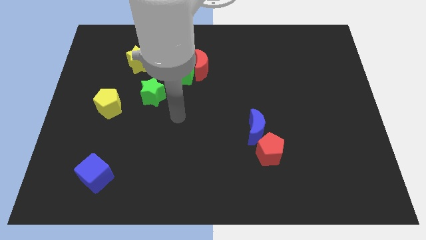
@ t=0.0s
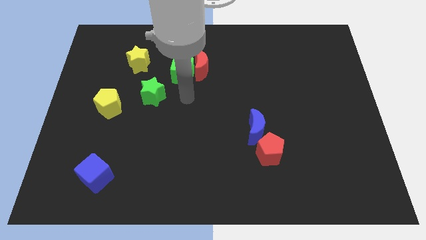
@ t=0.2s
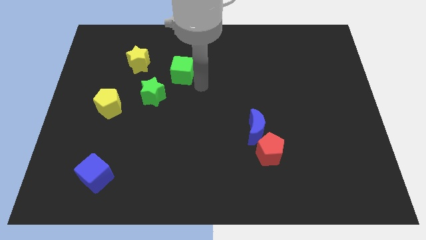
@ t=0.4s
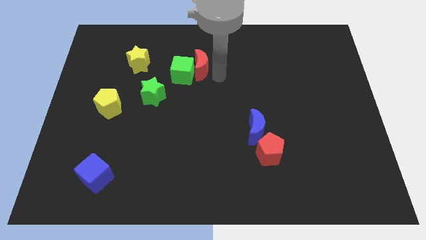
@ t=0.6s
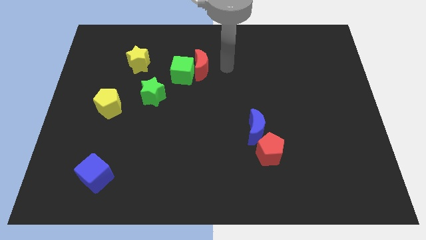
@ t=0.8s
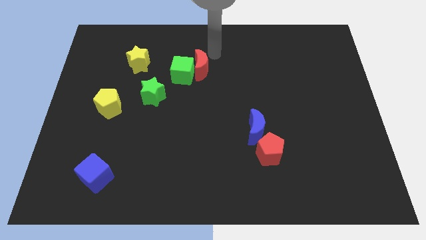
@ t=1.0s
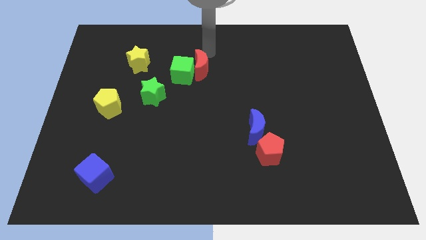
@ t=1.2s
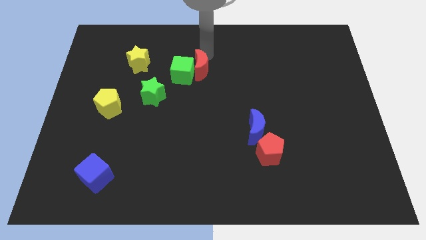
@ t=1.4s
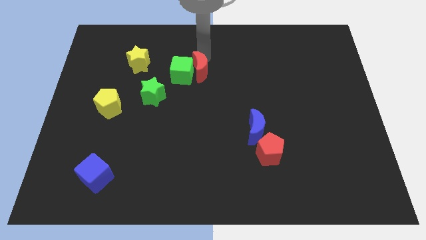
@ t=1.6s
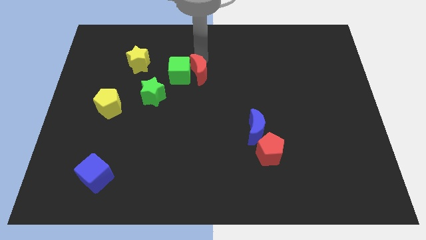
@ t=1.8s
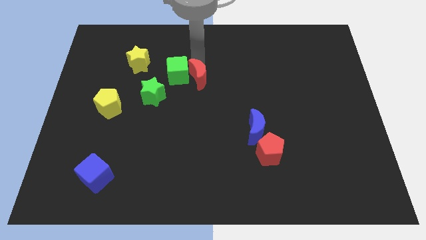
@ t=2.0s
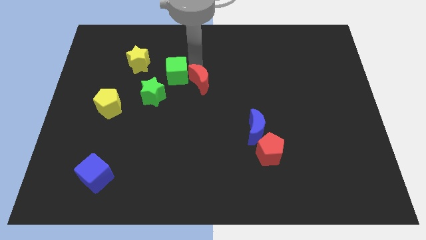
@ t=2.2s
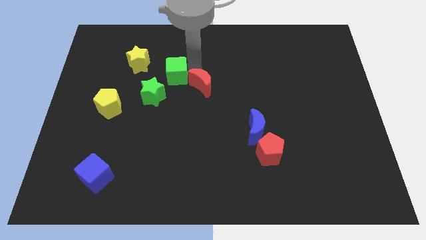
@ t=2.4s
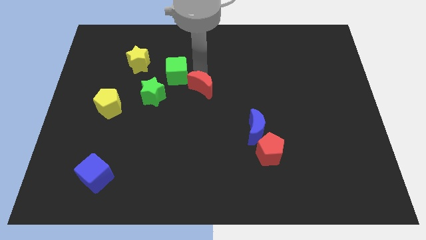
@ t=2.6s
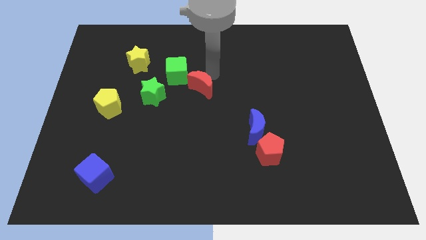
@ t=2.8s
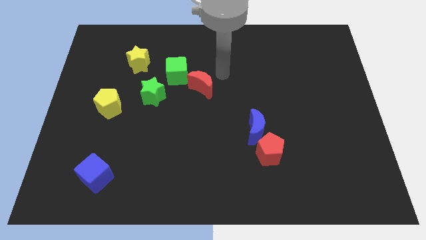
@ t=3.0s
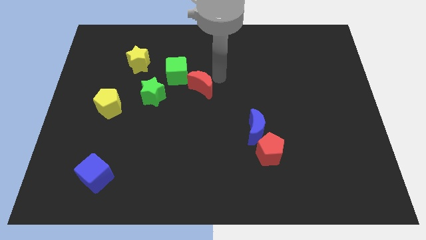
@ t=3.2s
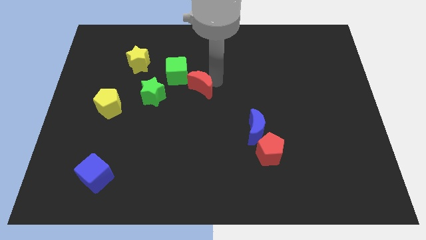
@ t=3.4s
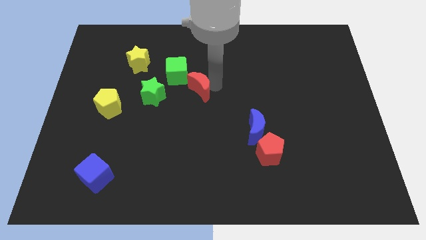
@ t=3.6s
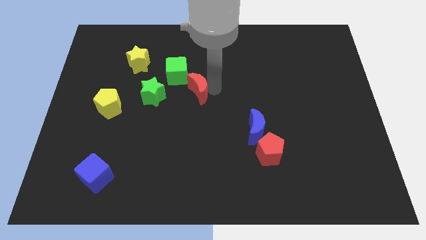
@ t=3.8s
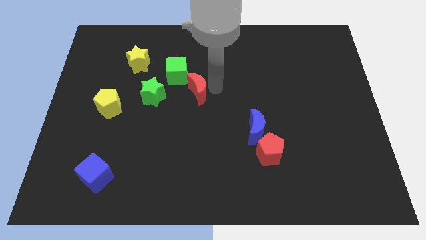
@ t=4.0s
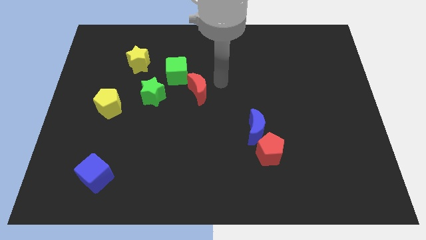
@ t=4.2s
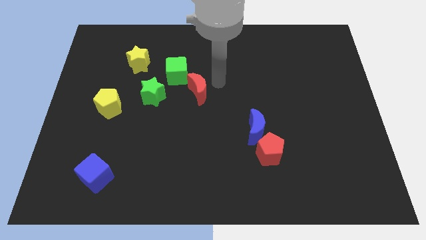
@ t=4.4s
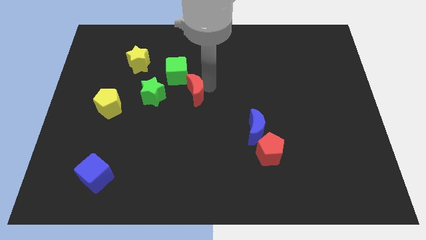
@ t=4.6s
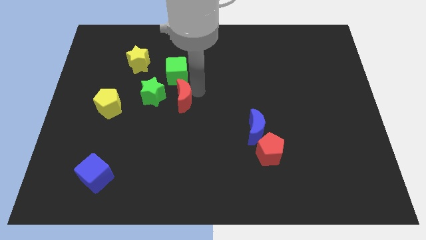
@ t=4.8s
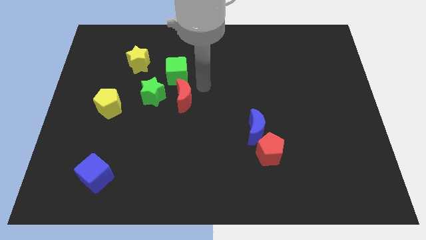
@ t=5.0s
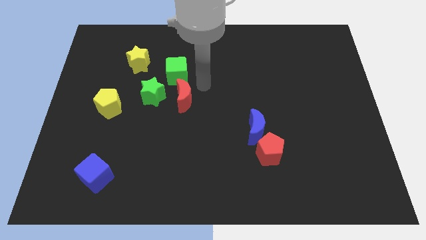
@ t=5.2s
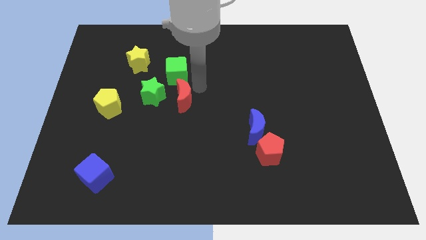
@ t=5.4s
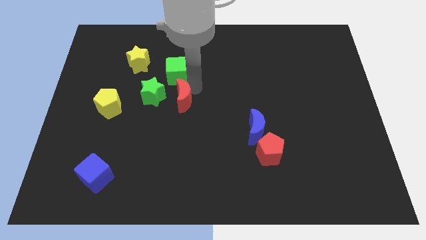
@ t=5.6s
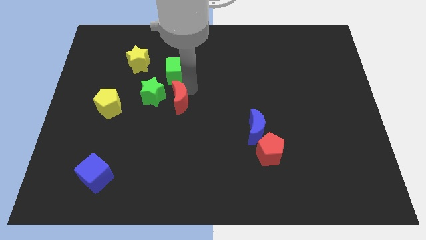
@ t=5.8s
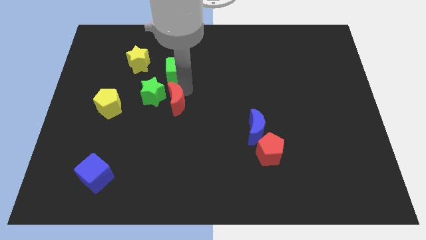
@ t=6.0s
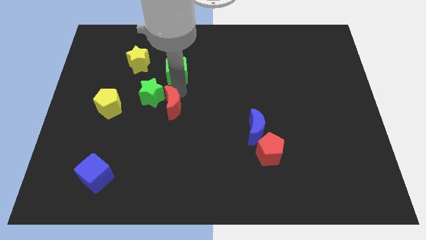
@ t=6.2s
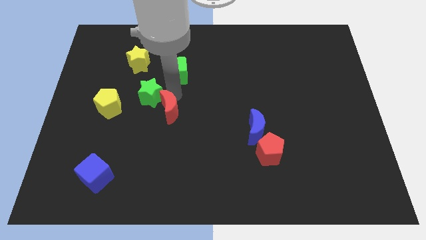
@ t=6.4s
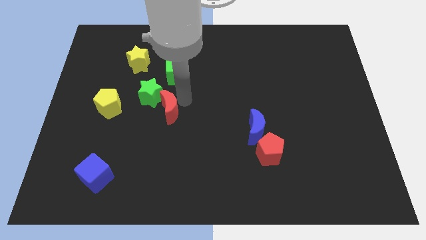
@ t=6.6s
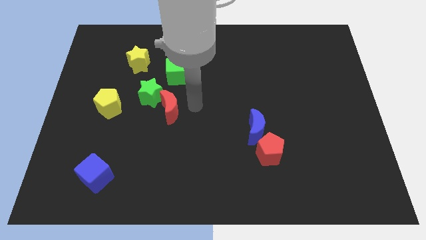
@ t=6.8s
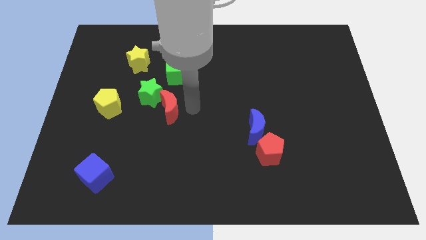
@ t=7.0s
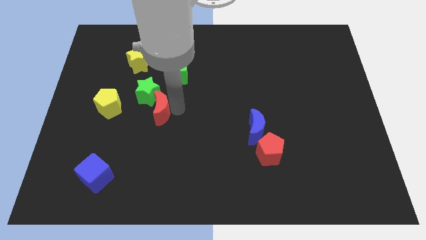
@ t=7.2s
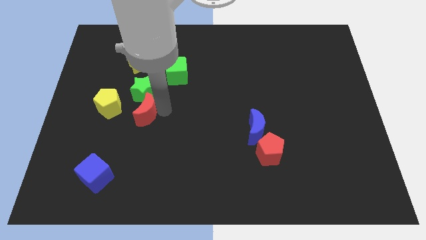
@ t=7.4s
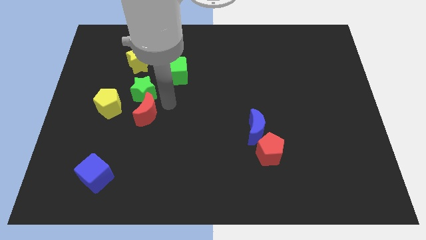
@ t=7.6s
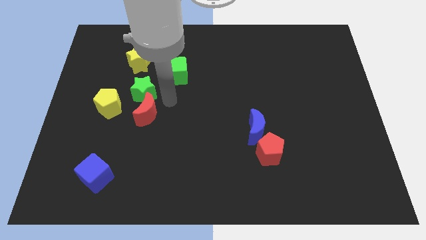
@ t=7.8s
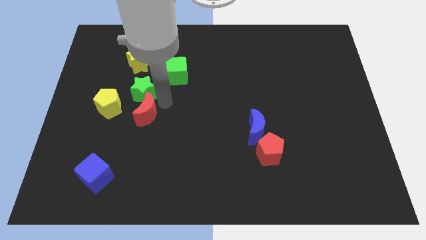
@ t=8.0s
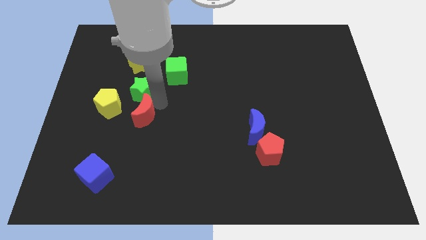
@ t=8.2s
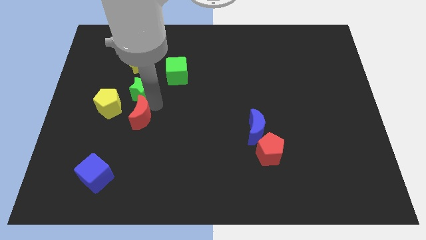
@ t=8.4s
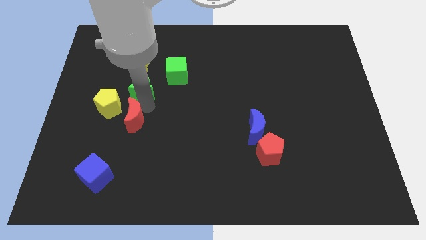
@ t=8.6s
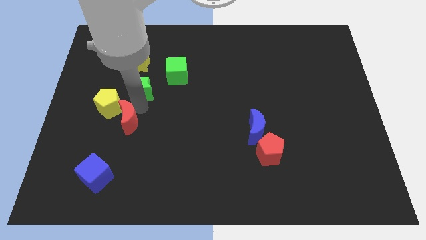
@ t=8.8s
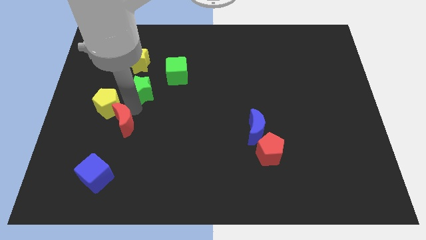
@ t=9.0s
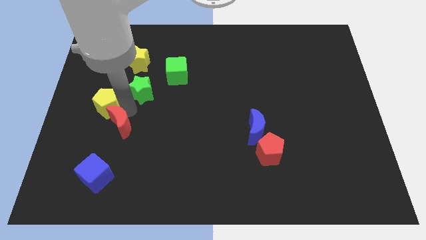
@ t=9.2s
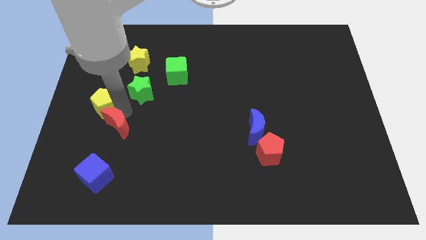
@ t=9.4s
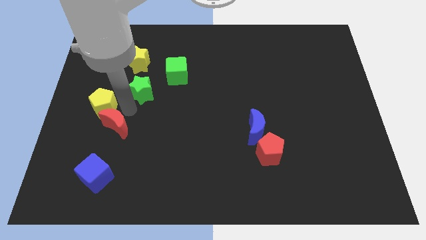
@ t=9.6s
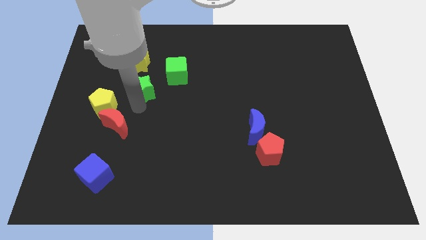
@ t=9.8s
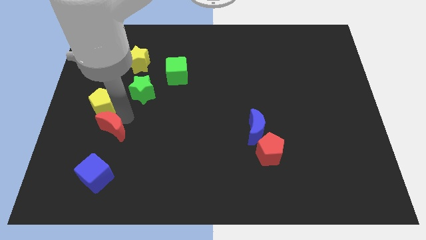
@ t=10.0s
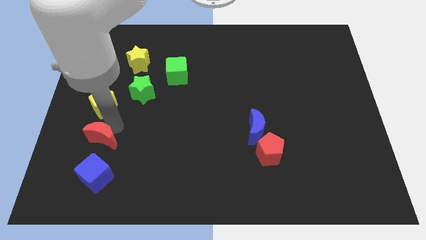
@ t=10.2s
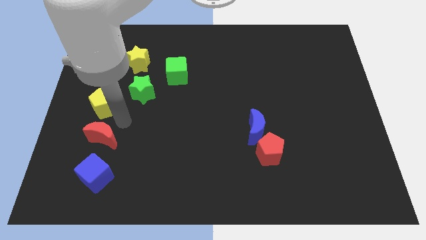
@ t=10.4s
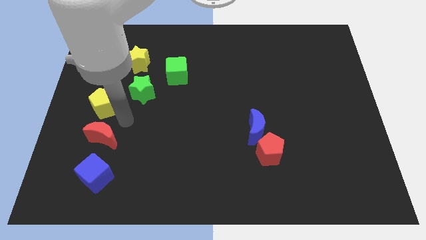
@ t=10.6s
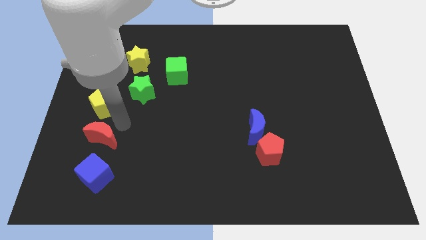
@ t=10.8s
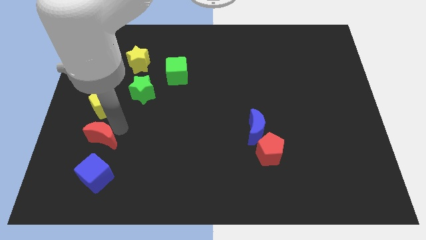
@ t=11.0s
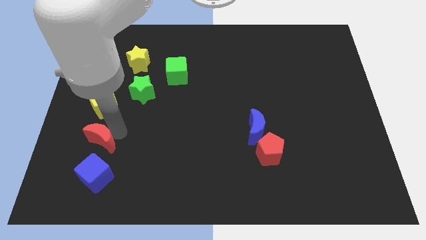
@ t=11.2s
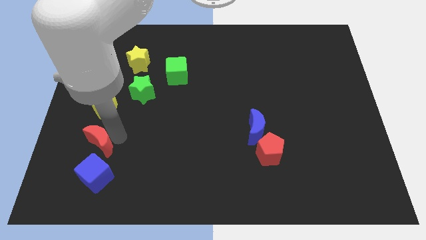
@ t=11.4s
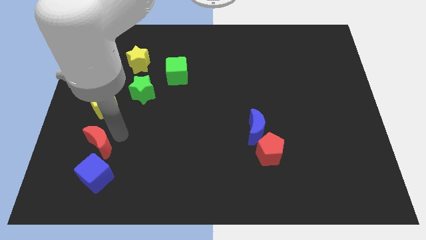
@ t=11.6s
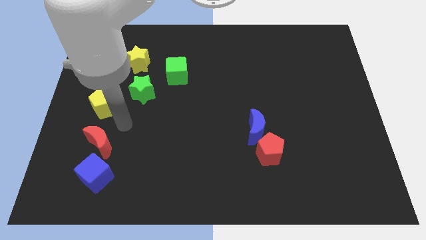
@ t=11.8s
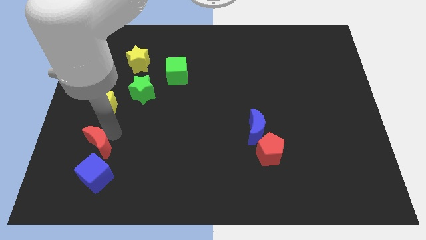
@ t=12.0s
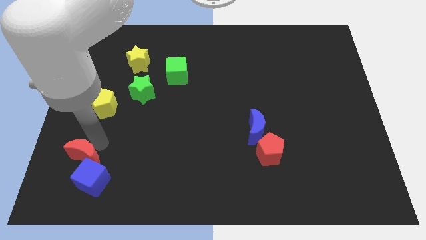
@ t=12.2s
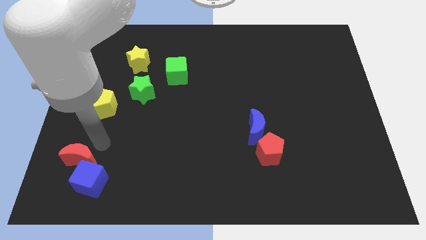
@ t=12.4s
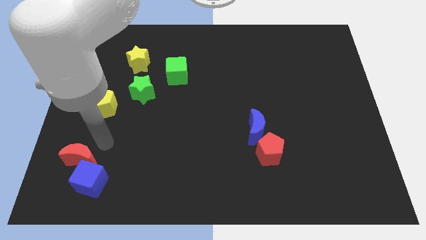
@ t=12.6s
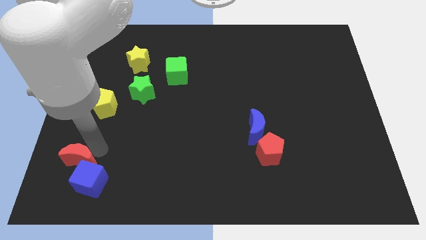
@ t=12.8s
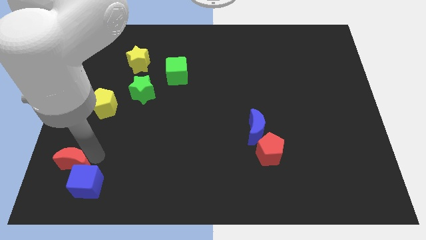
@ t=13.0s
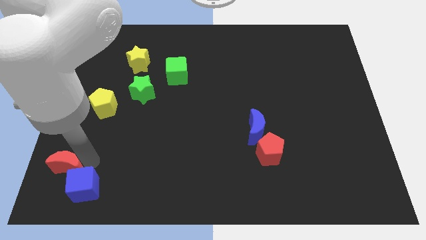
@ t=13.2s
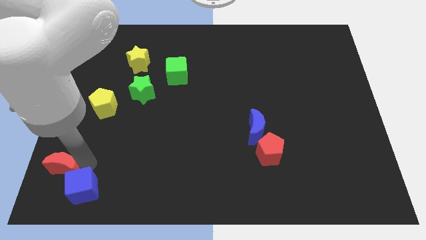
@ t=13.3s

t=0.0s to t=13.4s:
slide the red moon to the bottom left corner
